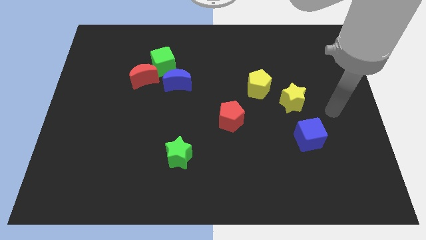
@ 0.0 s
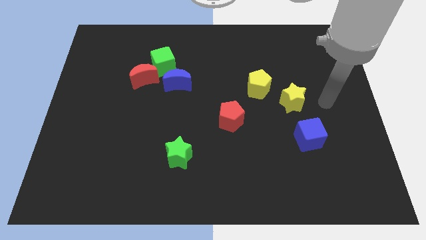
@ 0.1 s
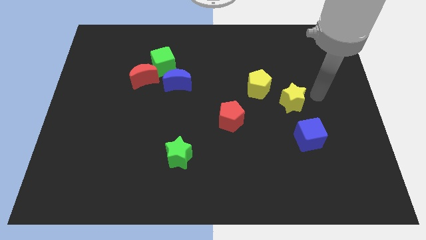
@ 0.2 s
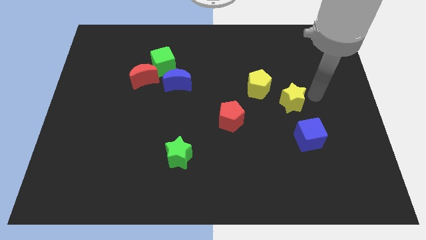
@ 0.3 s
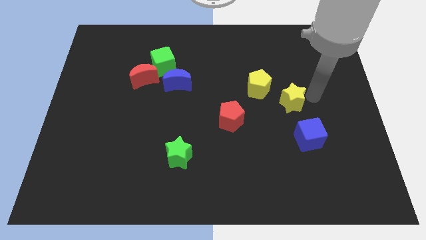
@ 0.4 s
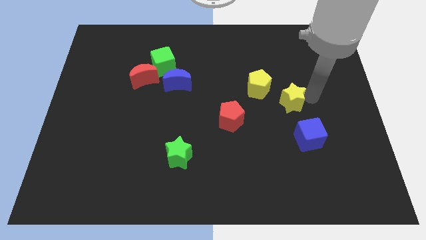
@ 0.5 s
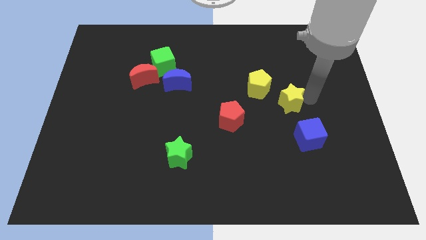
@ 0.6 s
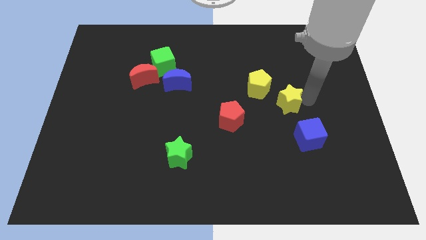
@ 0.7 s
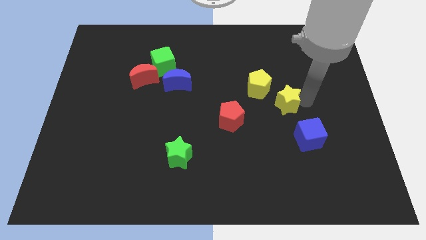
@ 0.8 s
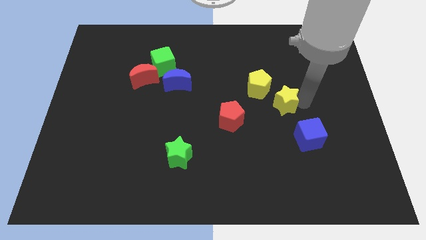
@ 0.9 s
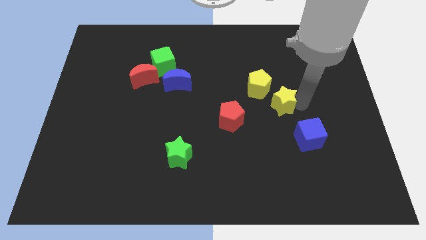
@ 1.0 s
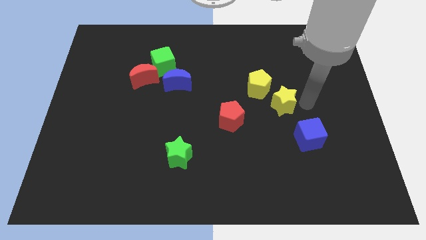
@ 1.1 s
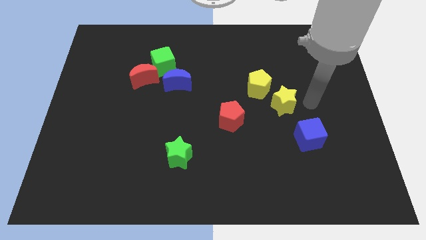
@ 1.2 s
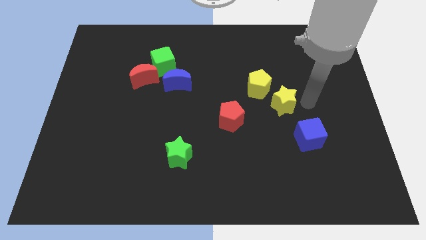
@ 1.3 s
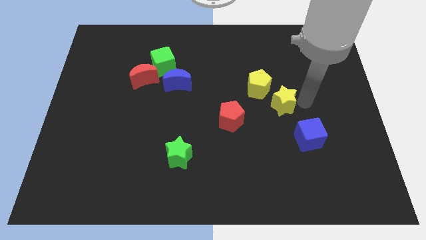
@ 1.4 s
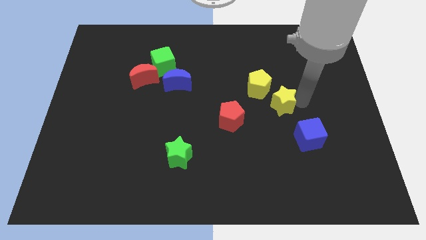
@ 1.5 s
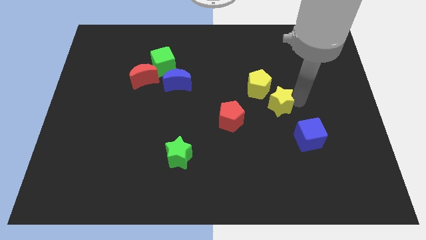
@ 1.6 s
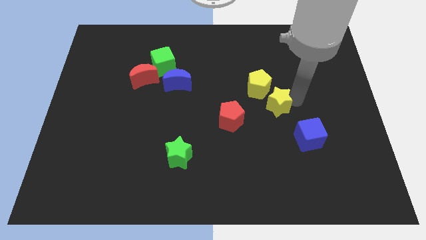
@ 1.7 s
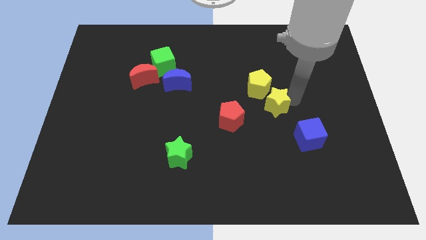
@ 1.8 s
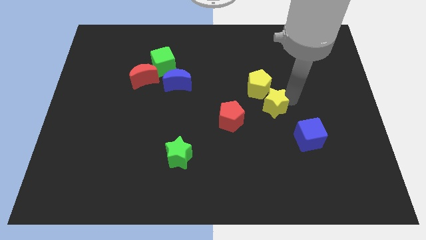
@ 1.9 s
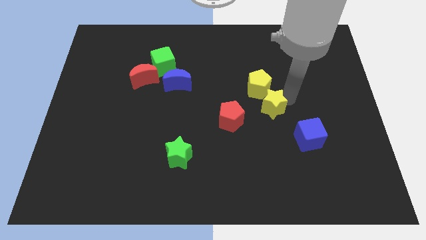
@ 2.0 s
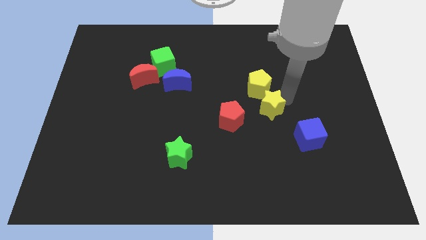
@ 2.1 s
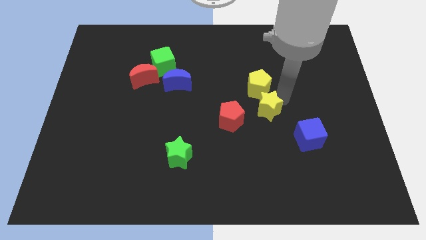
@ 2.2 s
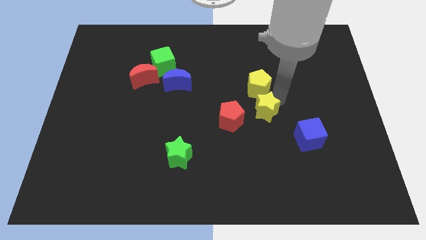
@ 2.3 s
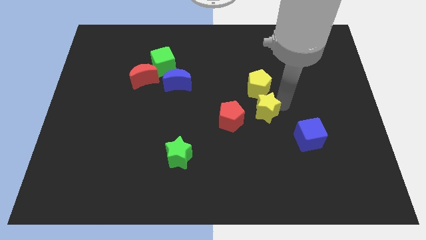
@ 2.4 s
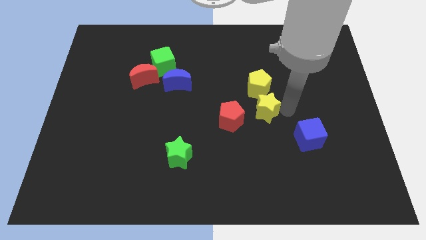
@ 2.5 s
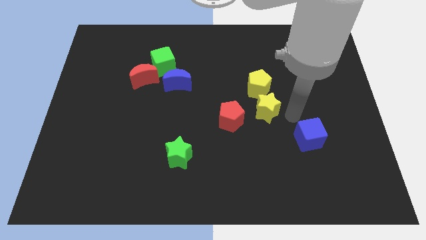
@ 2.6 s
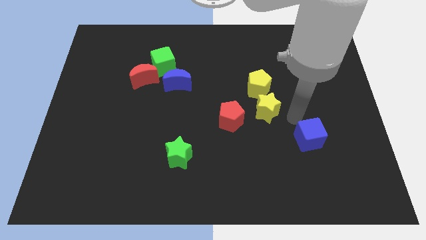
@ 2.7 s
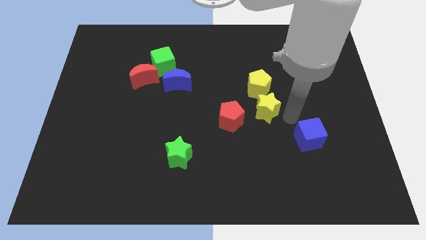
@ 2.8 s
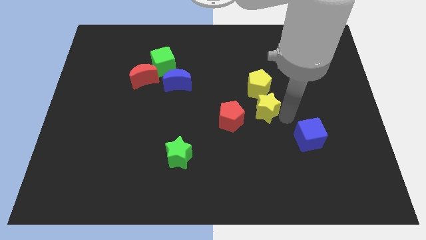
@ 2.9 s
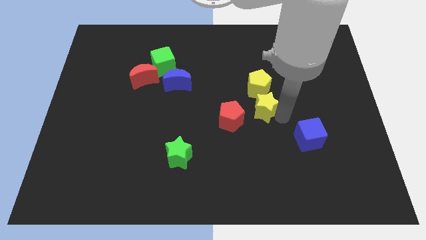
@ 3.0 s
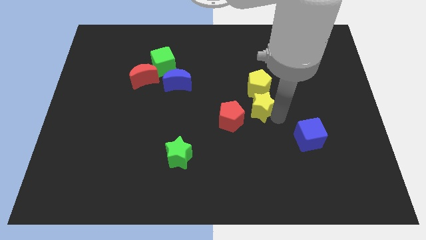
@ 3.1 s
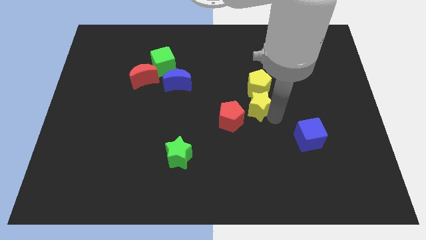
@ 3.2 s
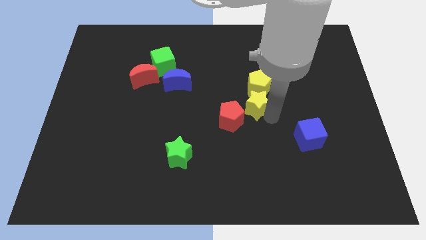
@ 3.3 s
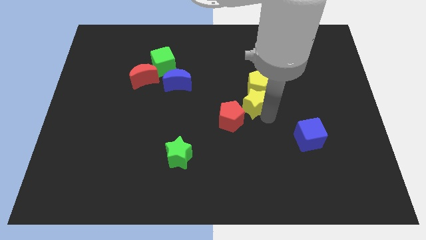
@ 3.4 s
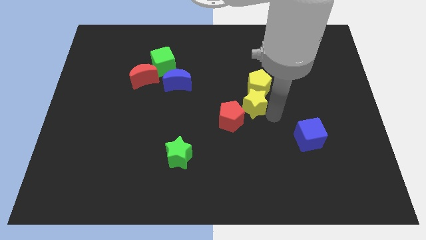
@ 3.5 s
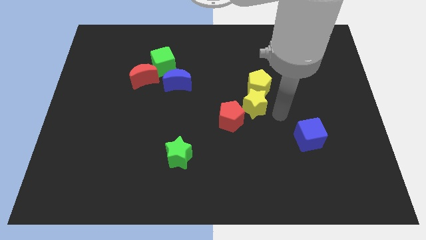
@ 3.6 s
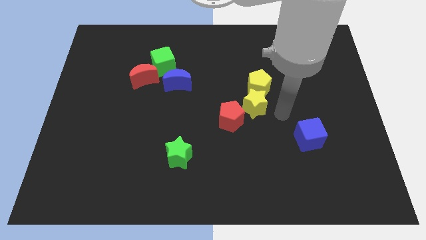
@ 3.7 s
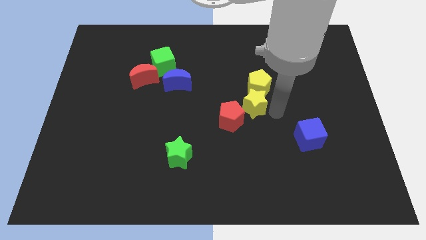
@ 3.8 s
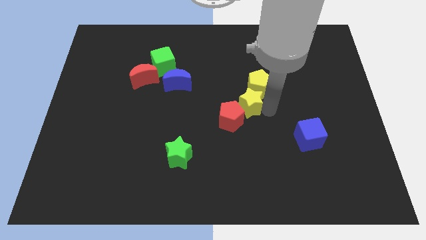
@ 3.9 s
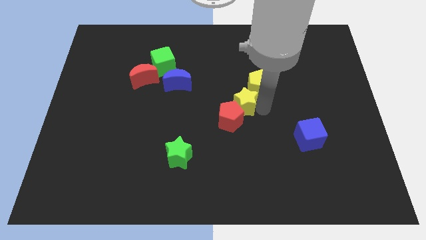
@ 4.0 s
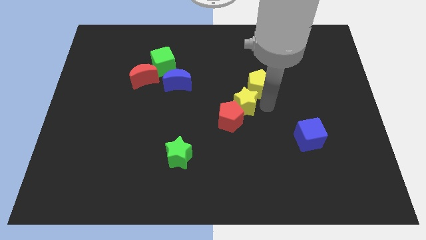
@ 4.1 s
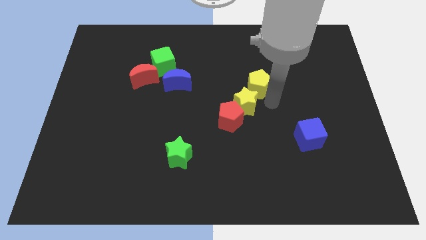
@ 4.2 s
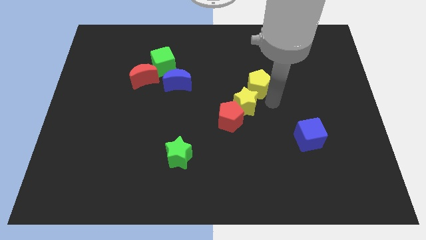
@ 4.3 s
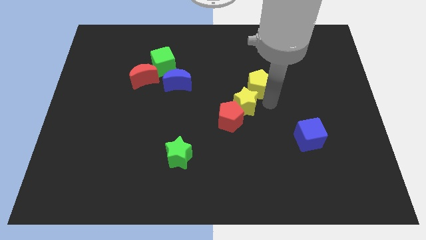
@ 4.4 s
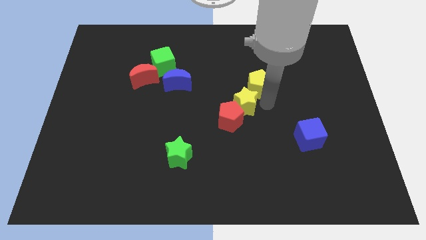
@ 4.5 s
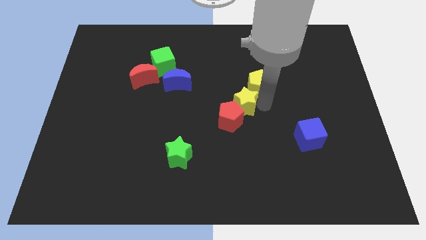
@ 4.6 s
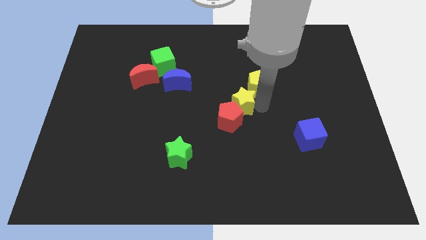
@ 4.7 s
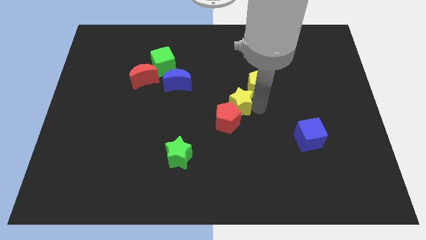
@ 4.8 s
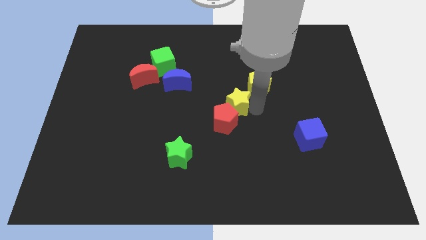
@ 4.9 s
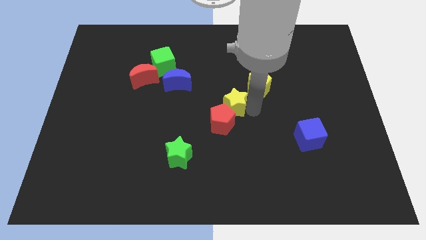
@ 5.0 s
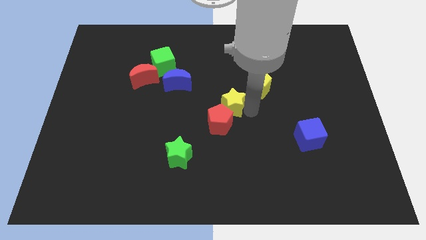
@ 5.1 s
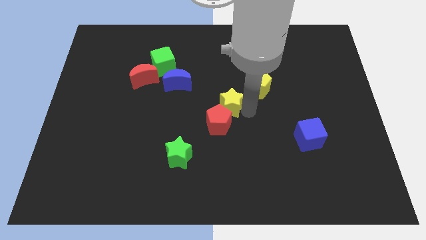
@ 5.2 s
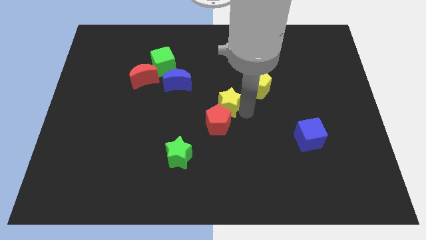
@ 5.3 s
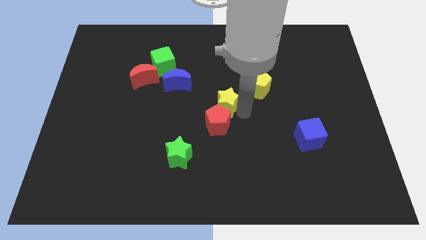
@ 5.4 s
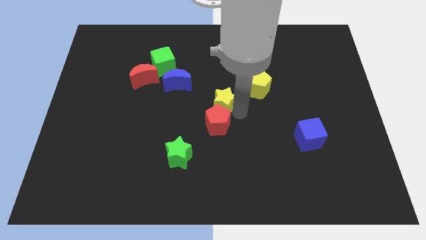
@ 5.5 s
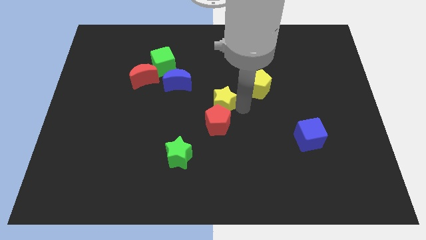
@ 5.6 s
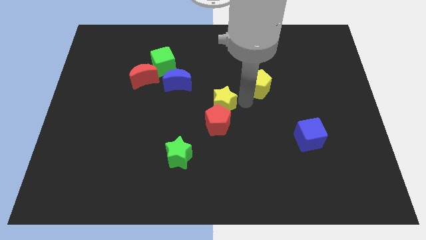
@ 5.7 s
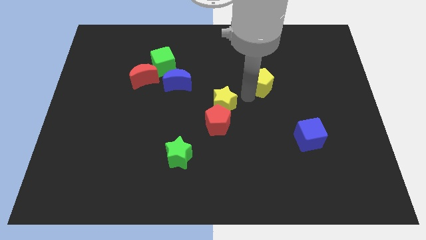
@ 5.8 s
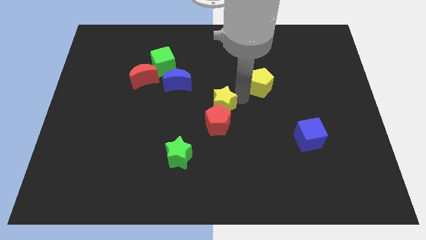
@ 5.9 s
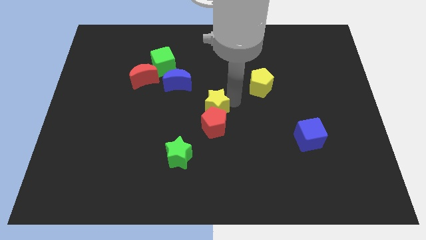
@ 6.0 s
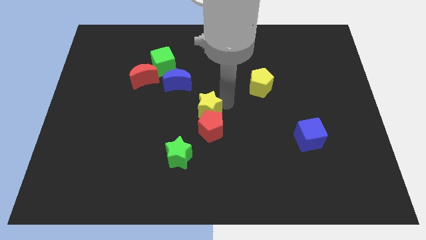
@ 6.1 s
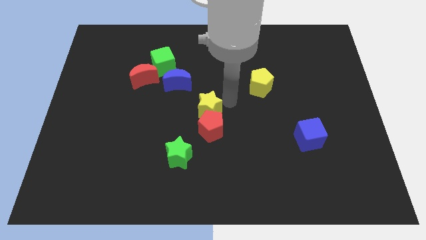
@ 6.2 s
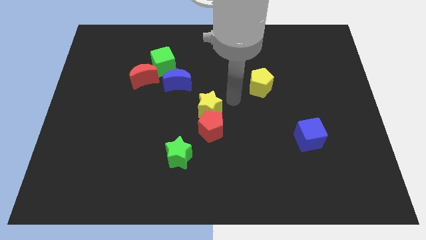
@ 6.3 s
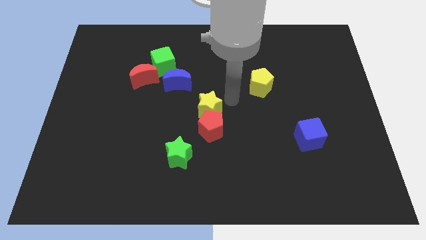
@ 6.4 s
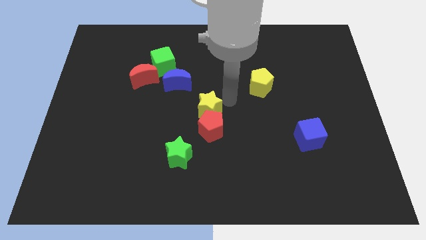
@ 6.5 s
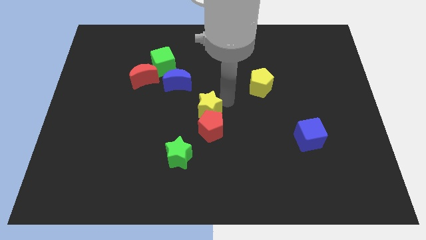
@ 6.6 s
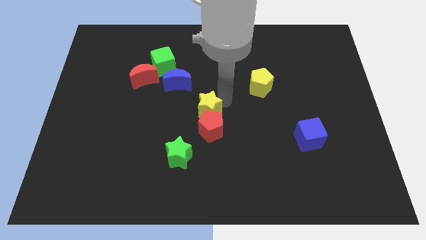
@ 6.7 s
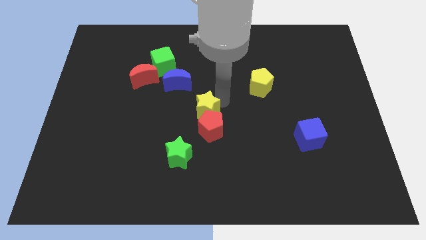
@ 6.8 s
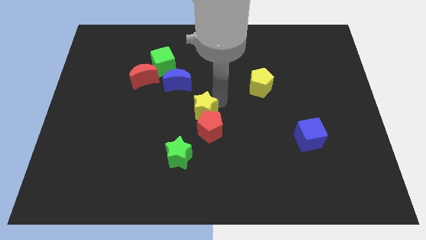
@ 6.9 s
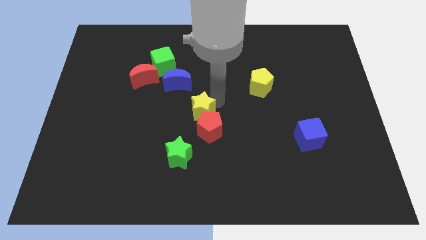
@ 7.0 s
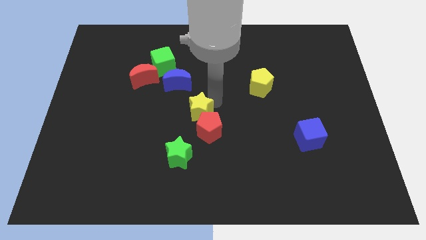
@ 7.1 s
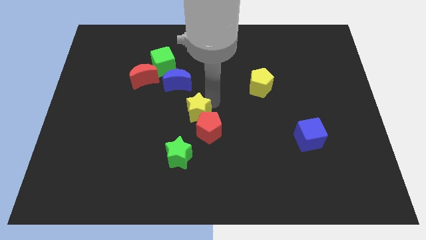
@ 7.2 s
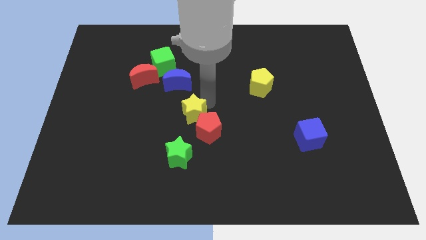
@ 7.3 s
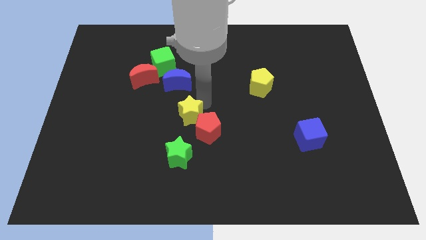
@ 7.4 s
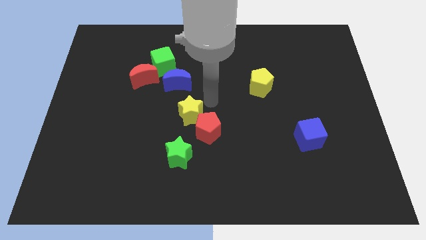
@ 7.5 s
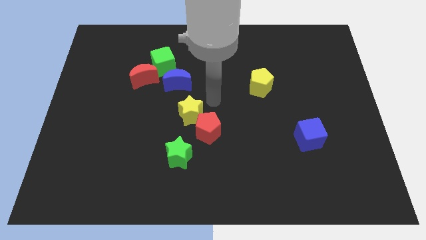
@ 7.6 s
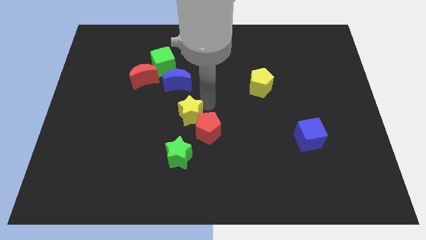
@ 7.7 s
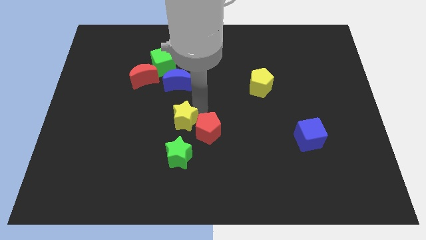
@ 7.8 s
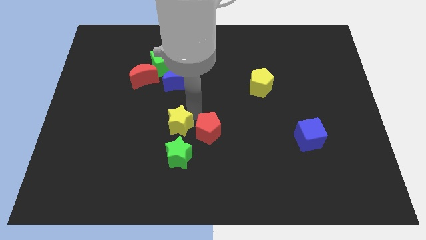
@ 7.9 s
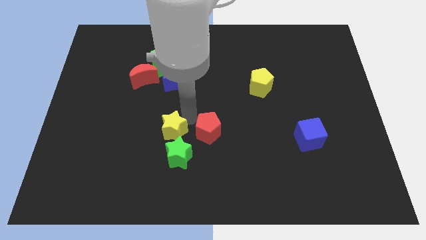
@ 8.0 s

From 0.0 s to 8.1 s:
push the yellow star diagonally up and to the left of the green star
